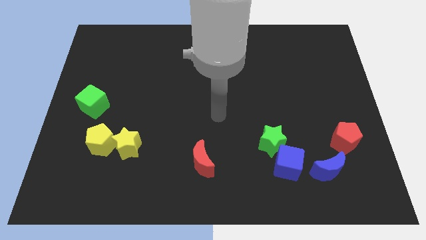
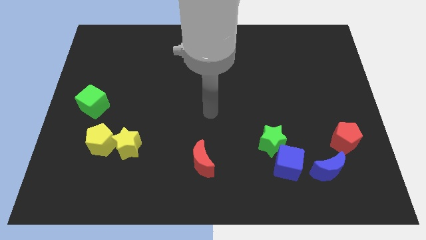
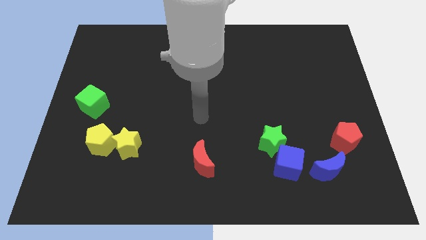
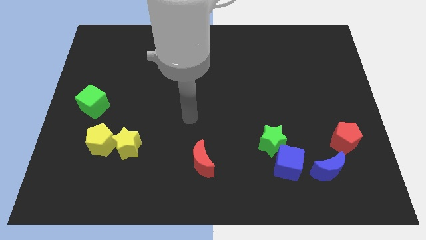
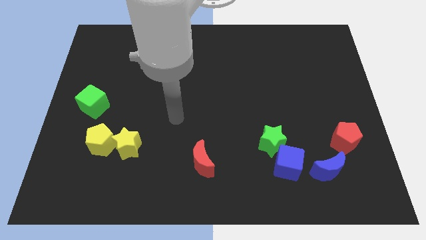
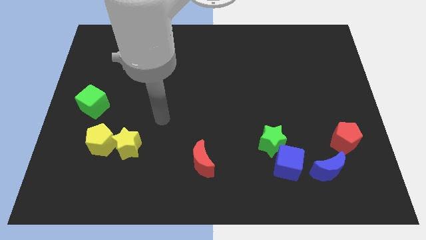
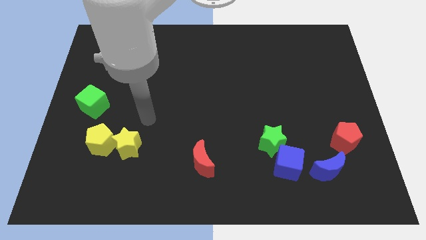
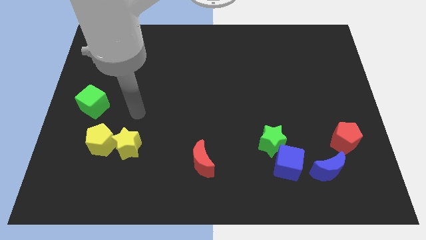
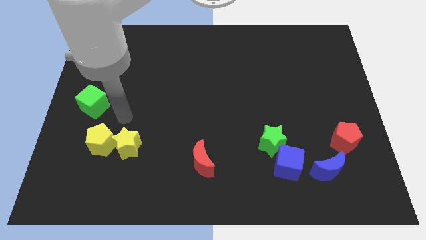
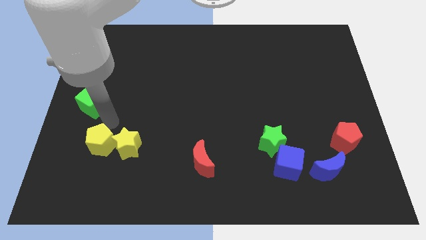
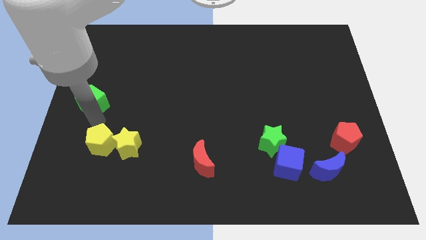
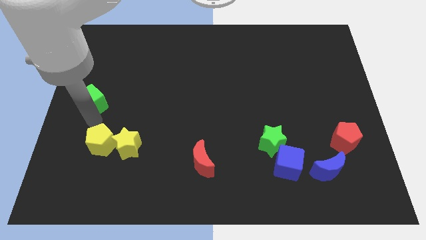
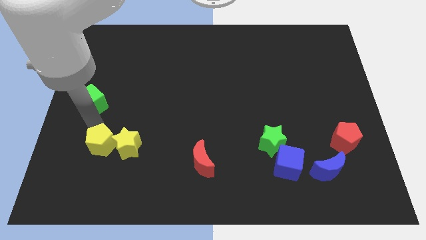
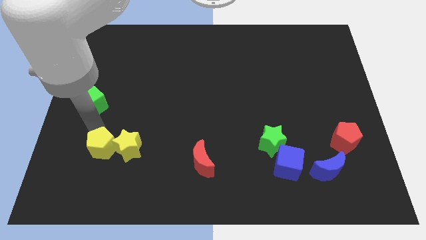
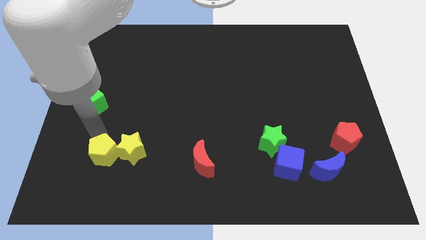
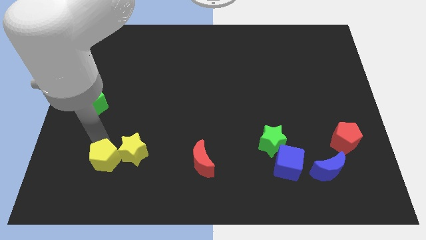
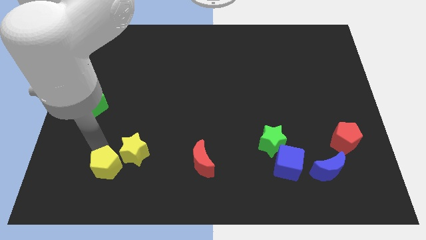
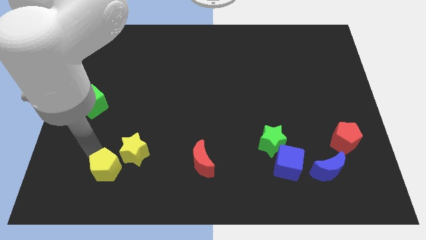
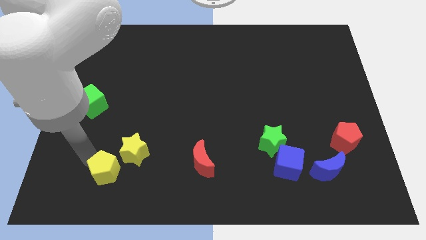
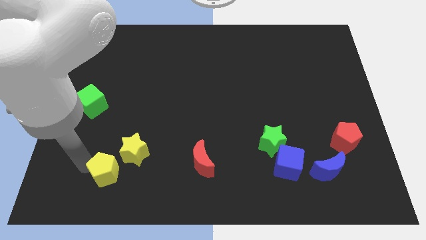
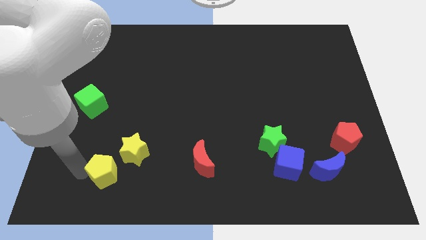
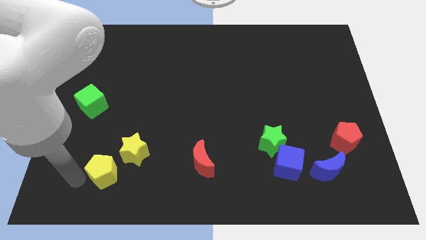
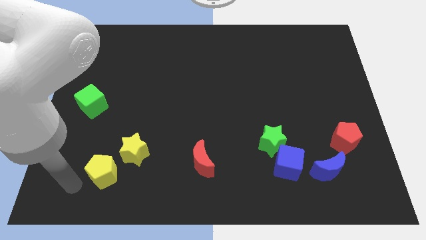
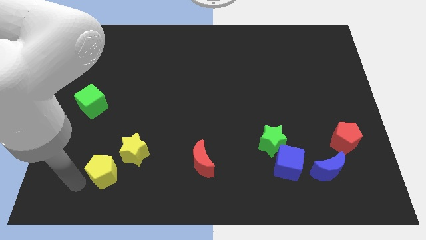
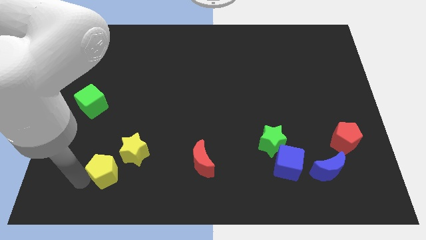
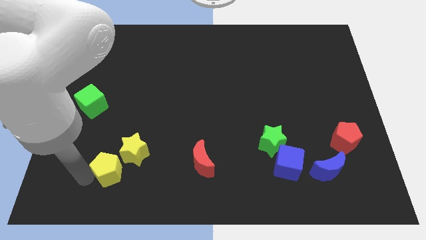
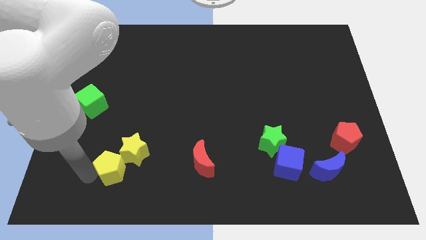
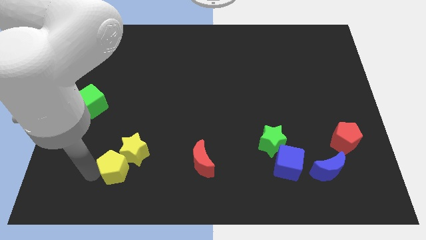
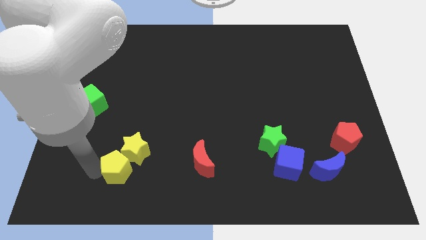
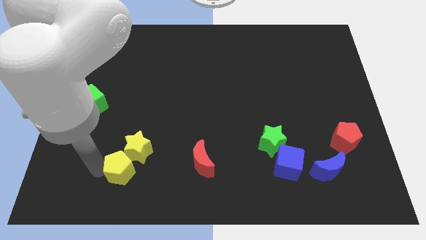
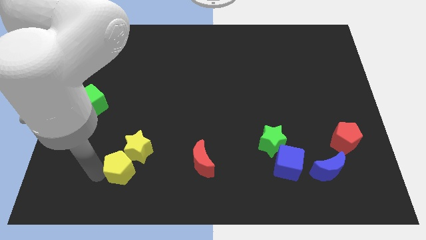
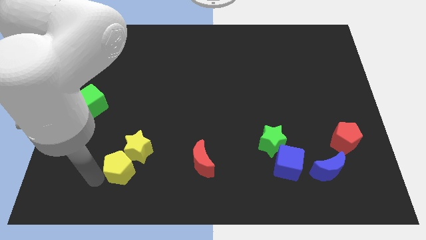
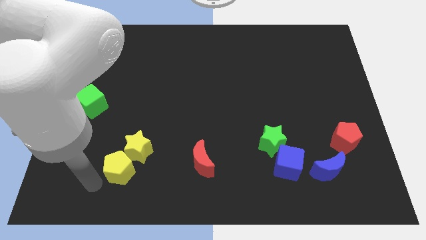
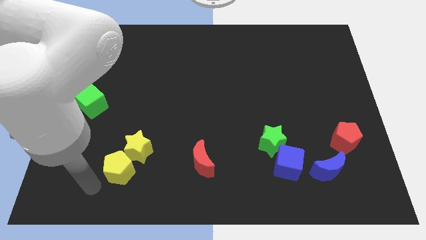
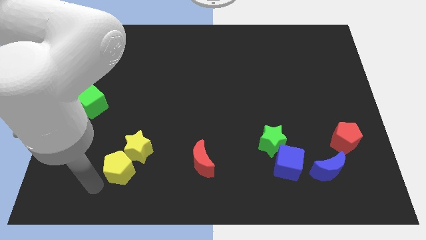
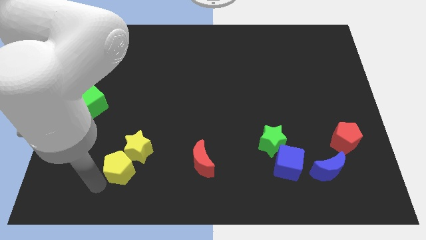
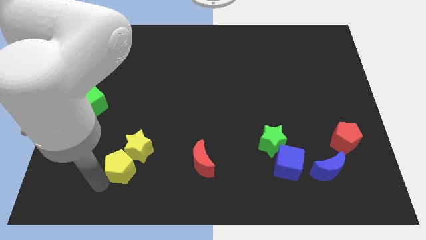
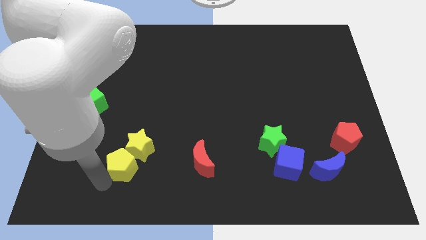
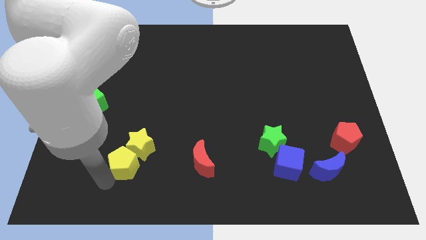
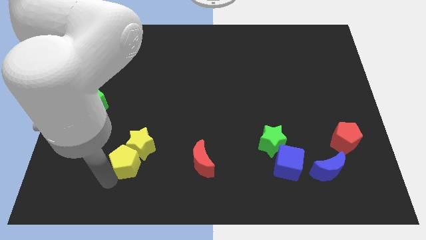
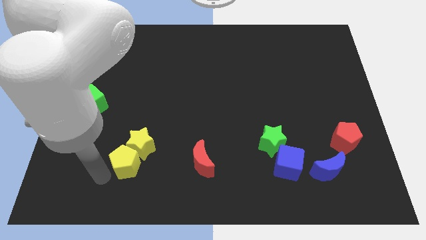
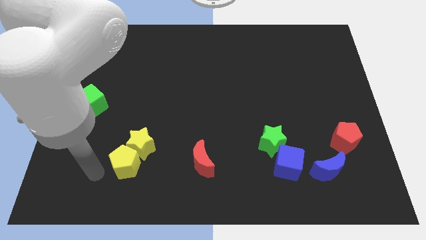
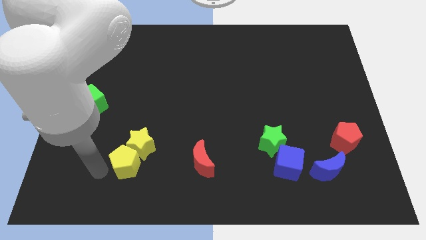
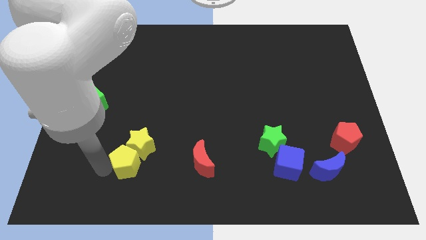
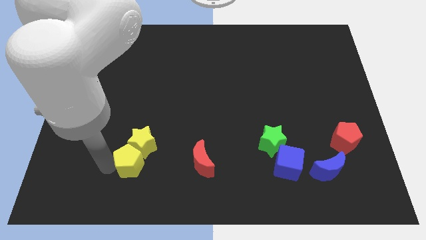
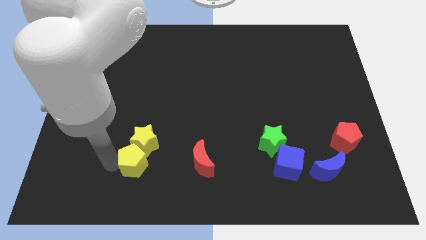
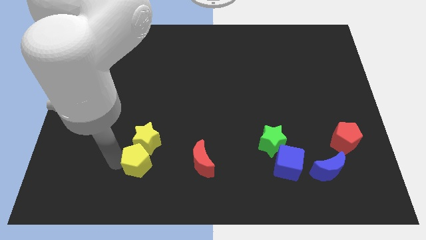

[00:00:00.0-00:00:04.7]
move the yellow pentagon somewhat right

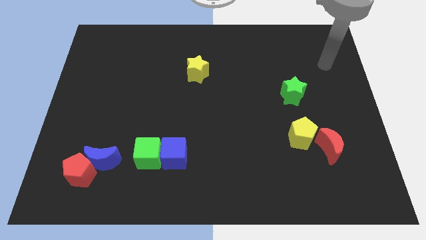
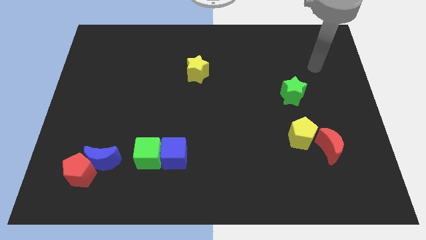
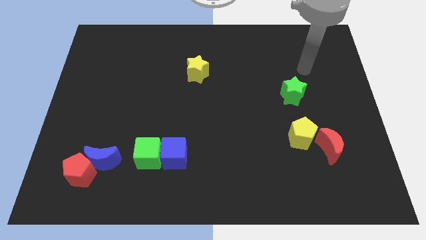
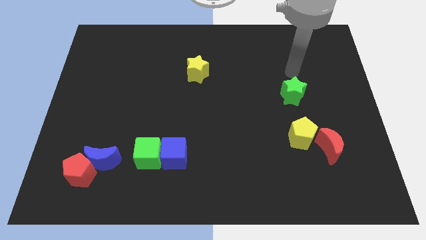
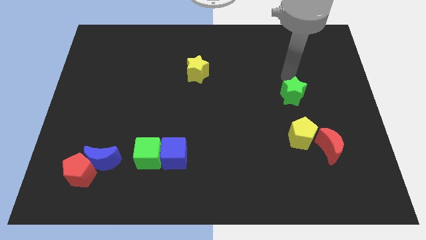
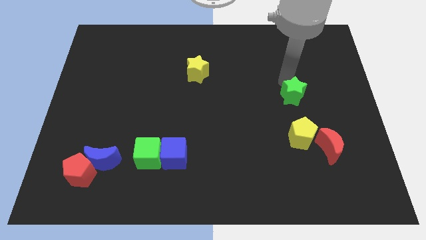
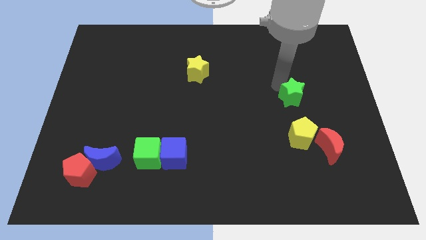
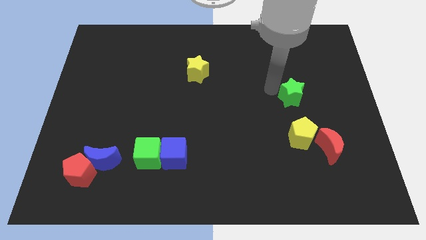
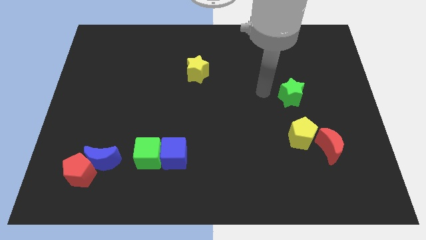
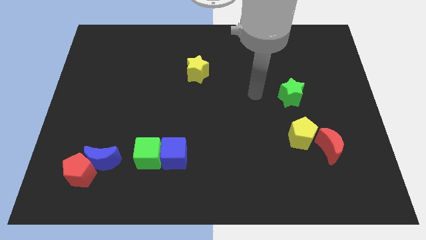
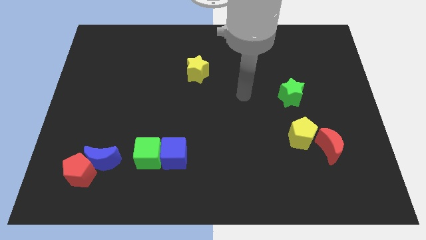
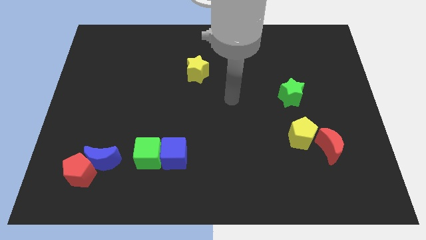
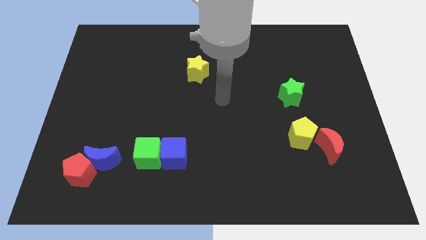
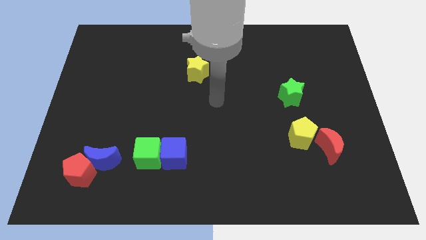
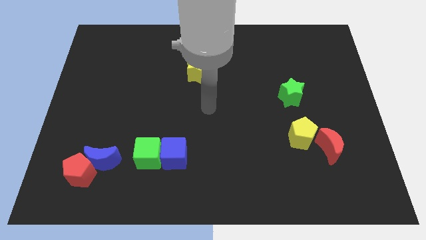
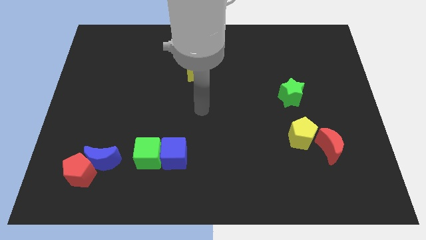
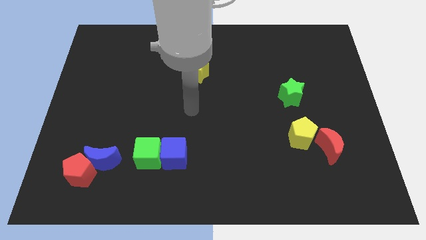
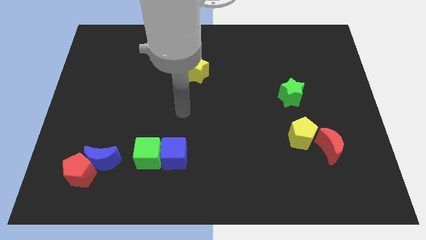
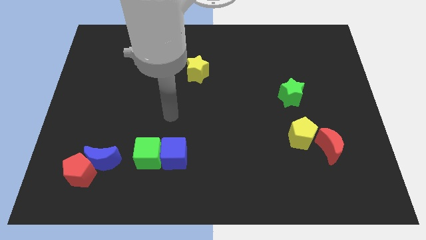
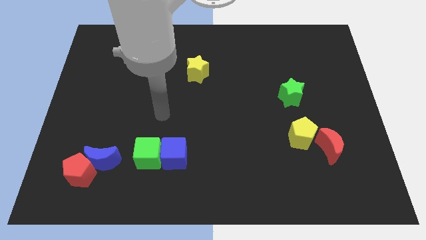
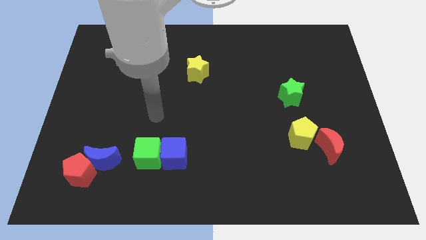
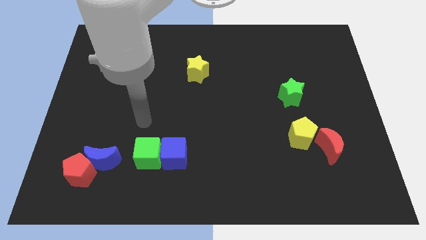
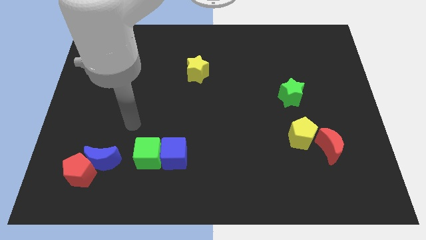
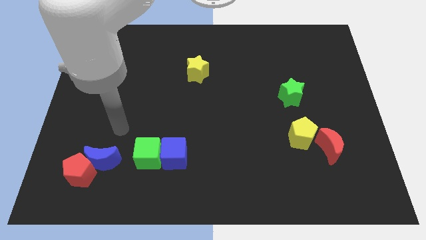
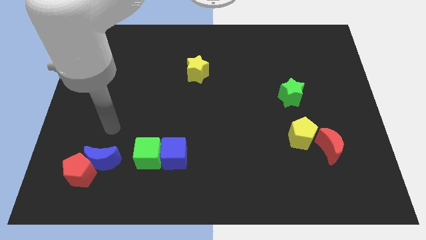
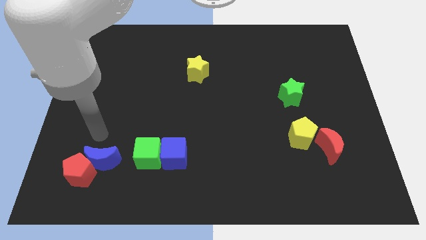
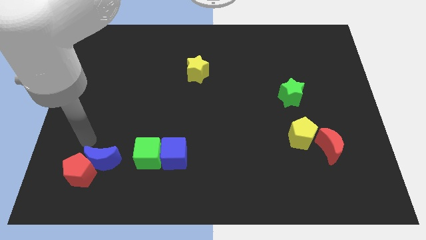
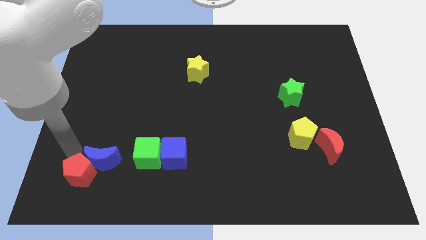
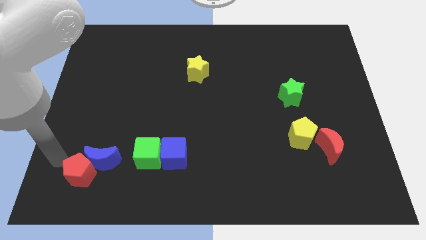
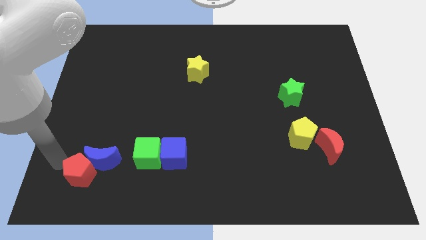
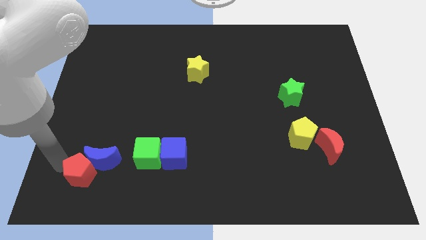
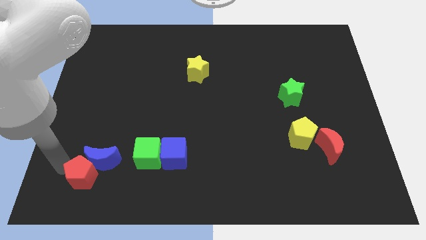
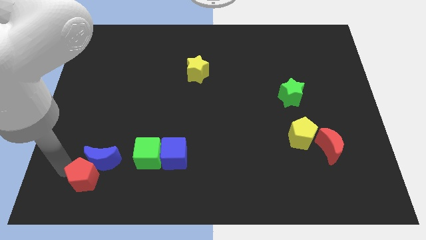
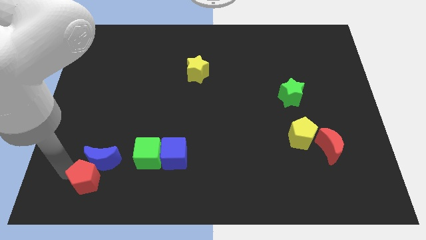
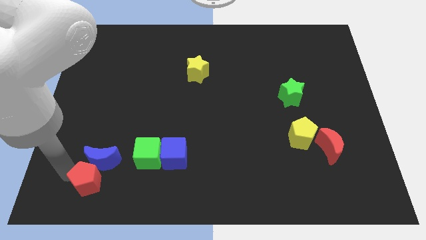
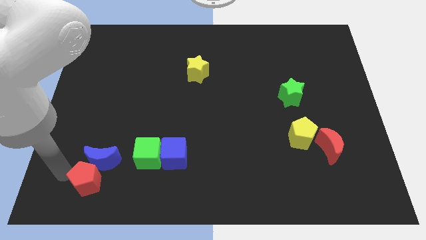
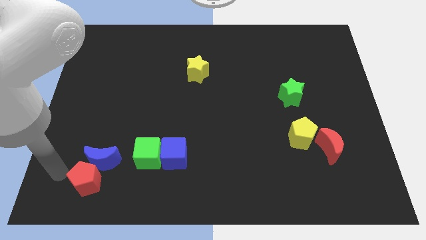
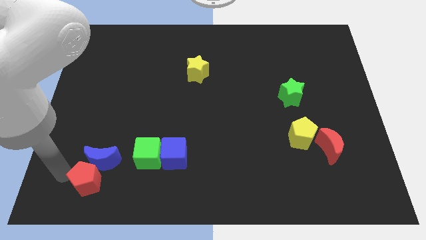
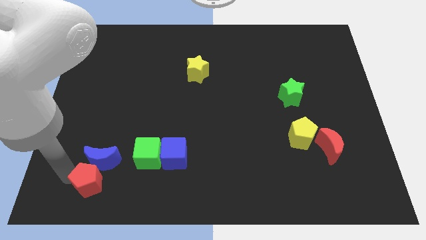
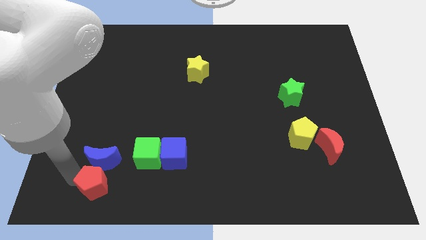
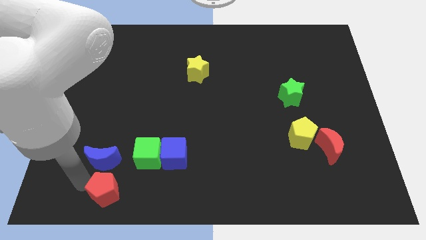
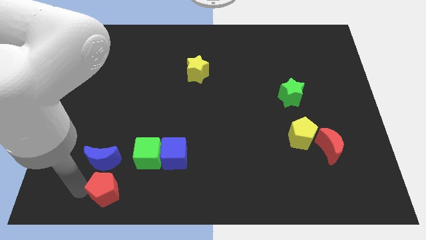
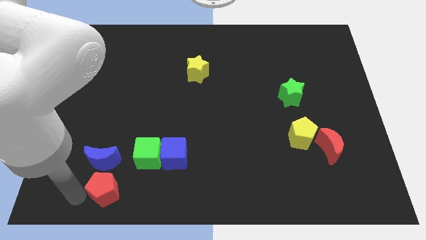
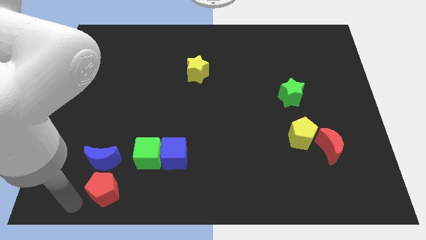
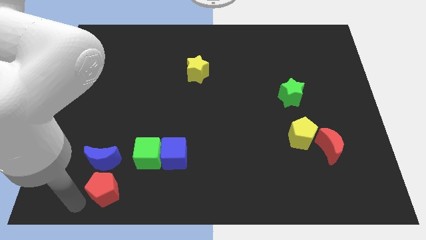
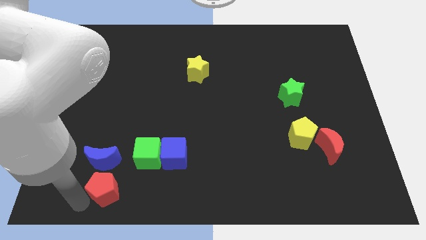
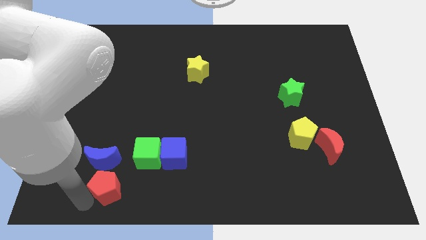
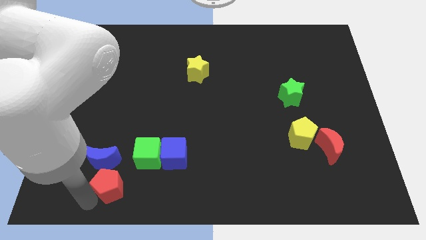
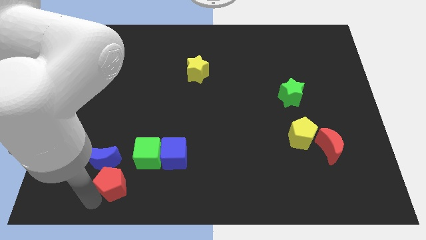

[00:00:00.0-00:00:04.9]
push the red pentagon right slightly
